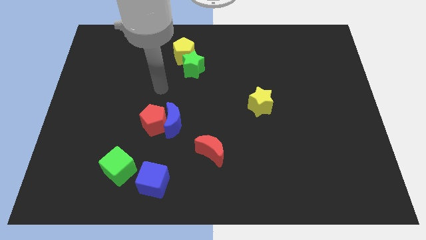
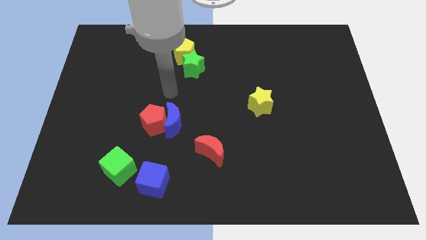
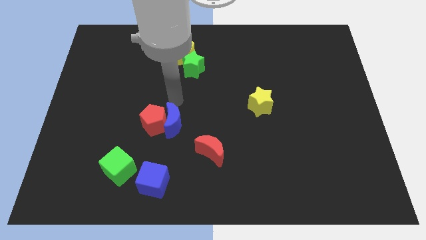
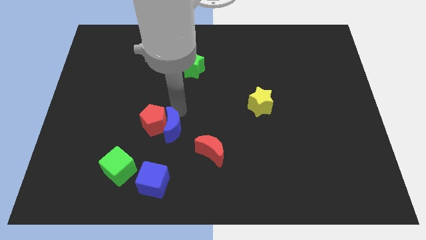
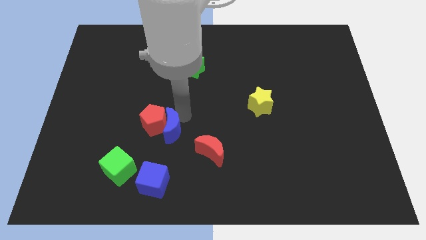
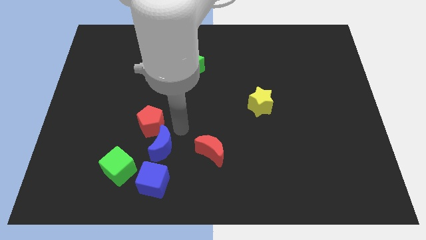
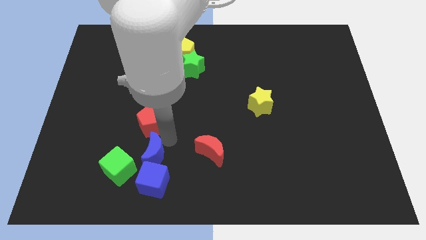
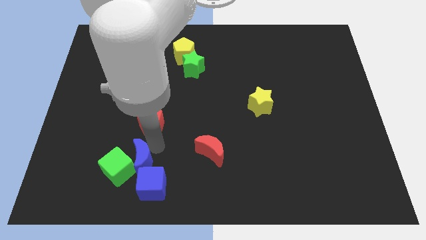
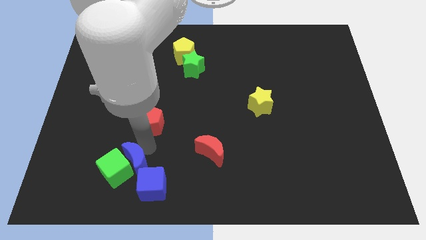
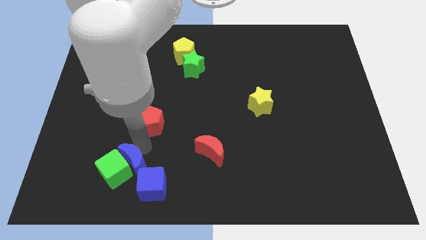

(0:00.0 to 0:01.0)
pull the red pentagon apart from the blue moon

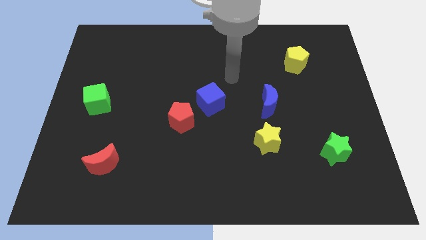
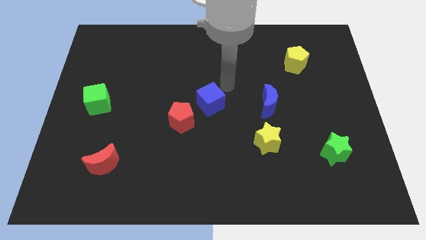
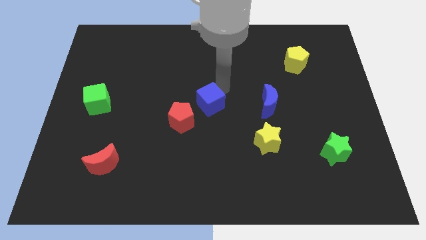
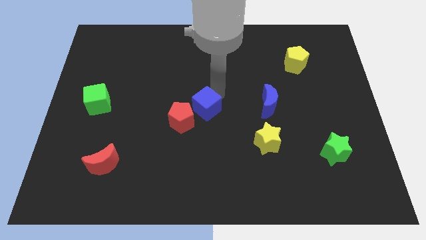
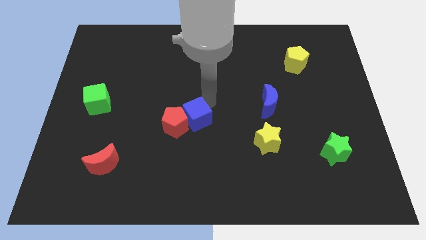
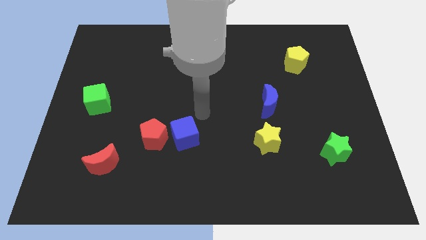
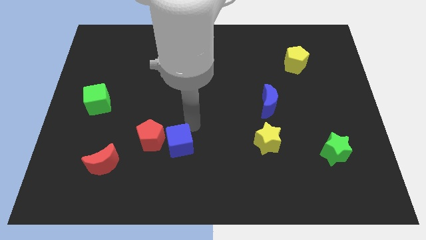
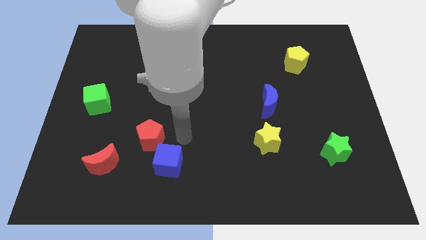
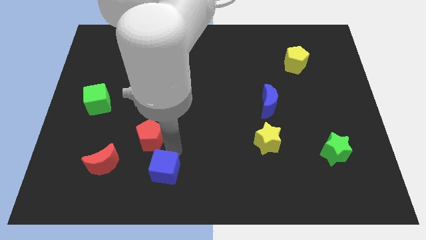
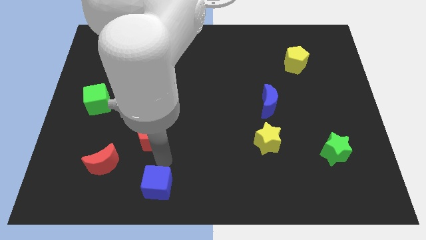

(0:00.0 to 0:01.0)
pull the red pentagon apart from the blue cube

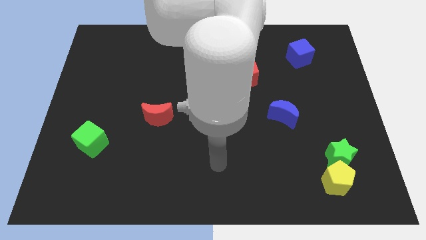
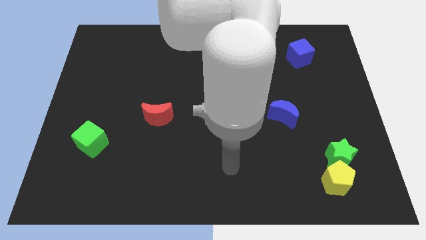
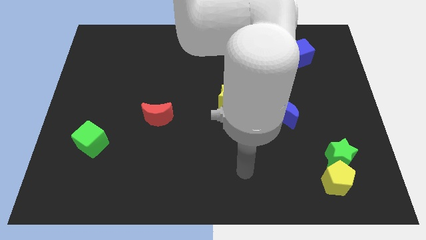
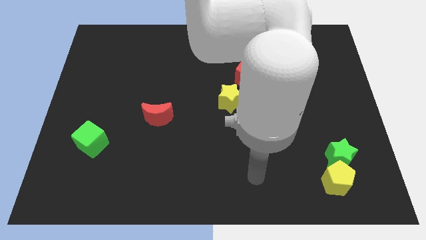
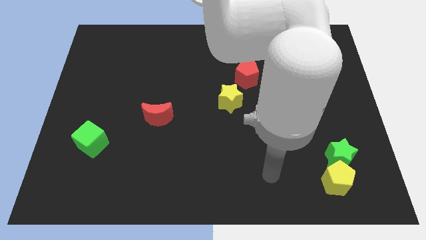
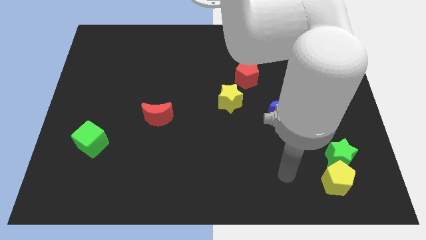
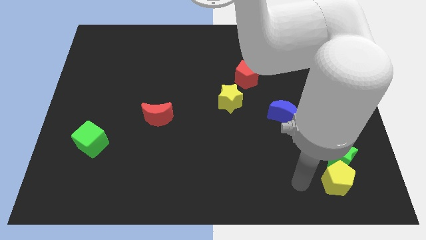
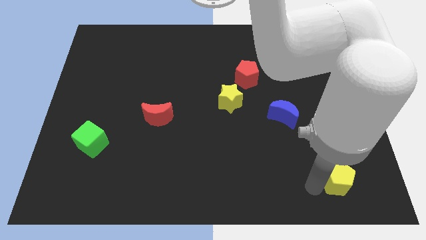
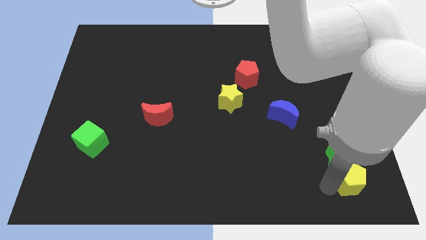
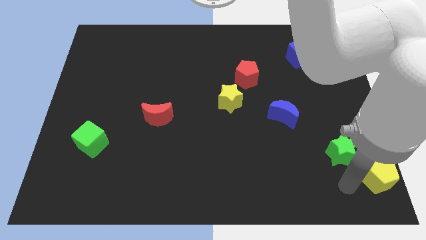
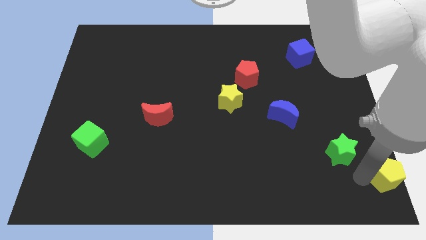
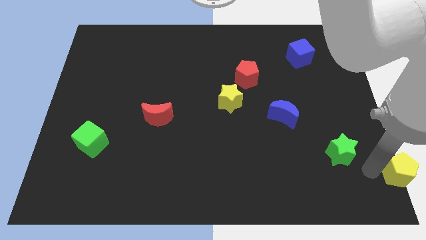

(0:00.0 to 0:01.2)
move the green star away from the yellow pentagon

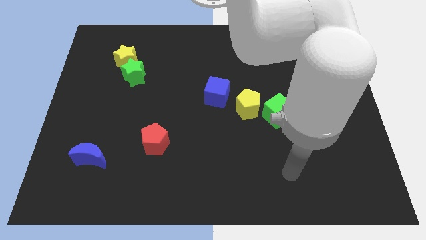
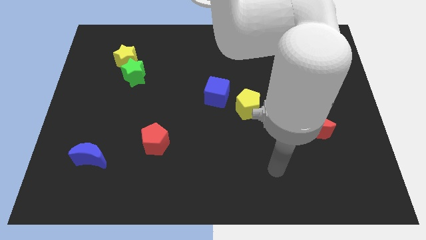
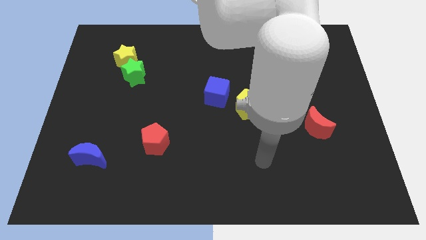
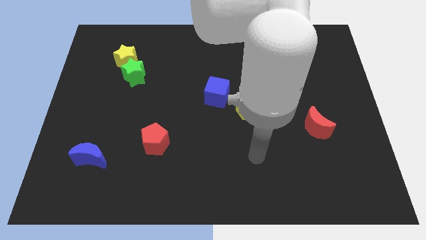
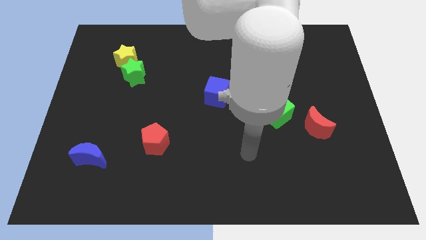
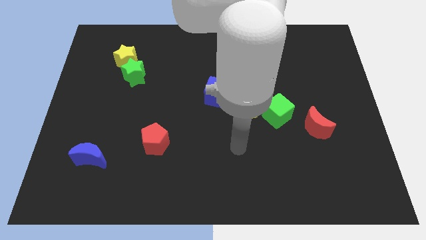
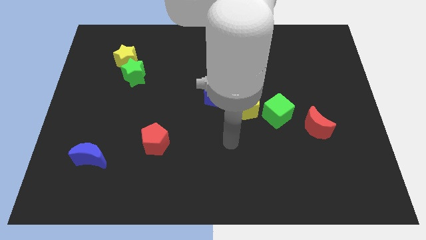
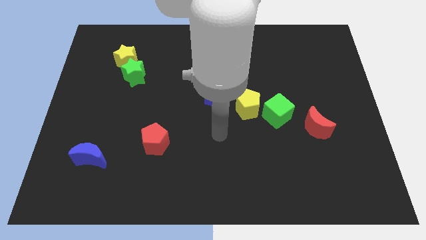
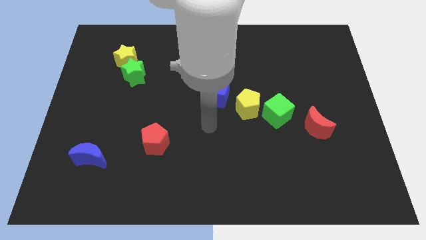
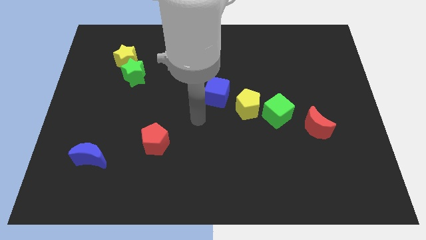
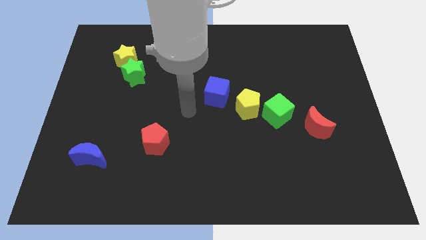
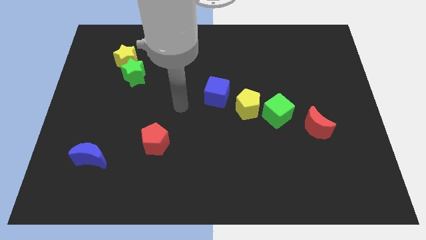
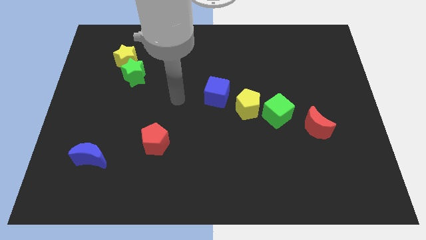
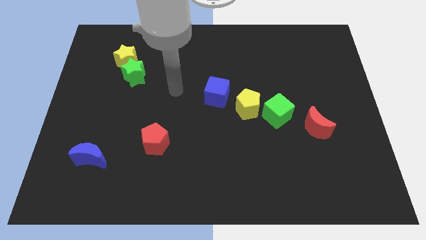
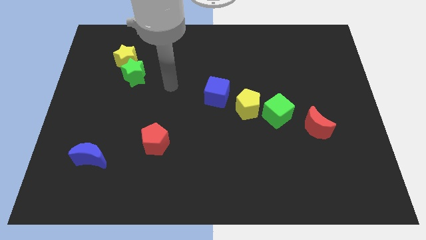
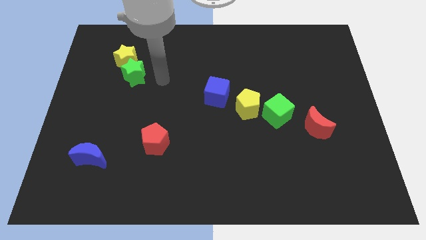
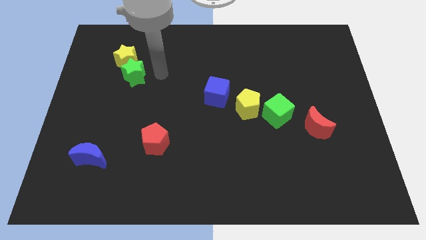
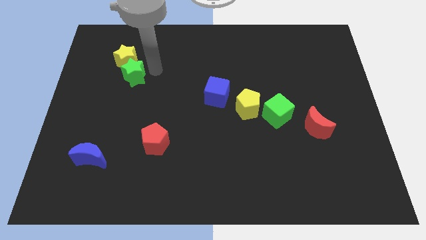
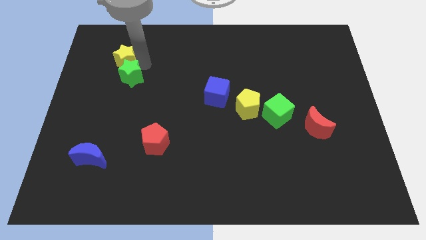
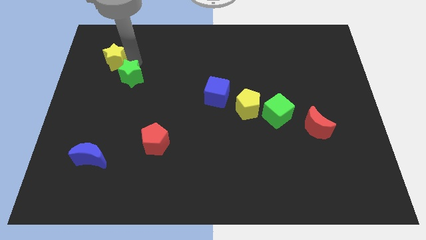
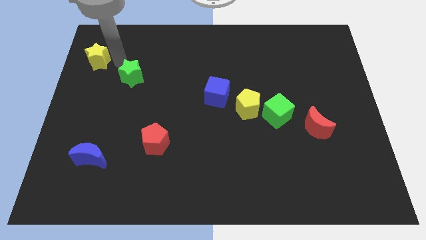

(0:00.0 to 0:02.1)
pull the green star apart from the yellow star

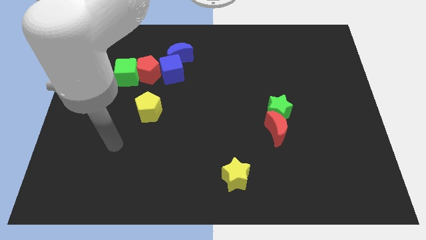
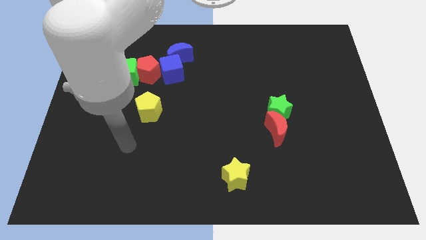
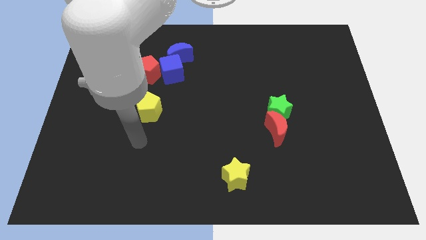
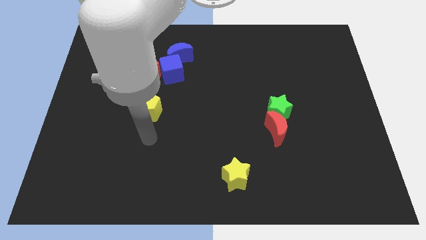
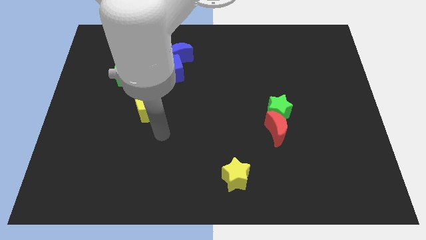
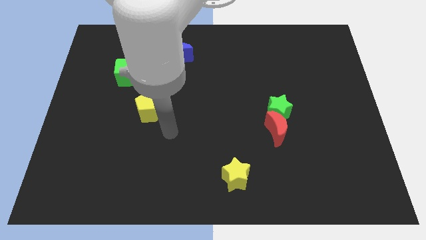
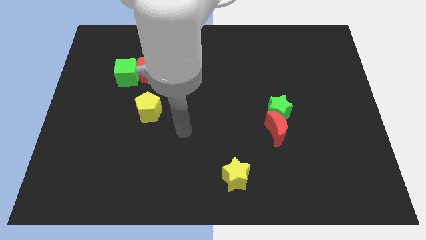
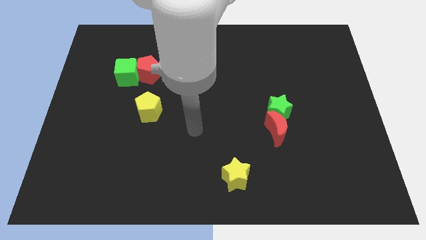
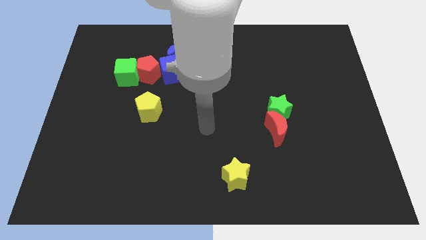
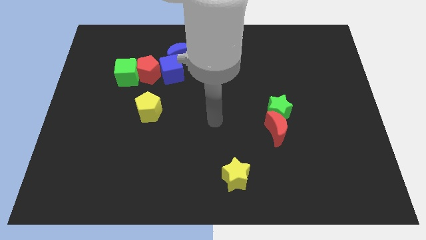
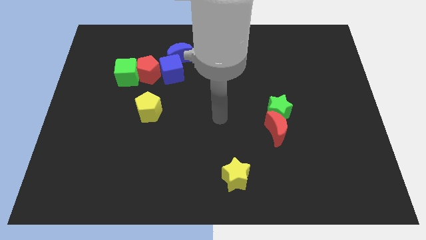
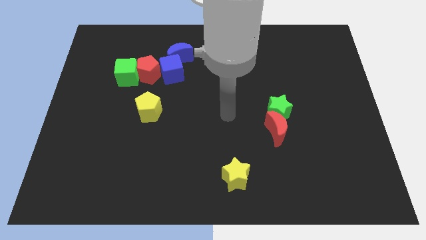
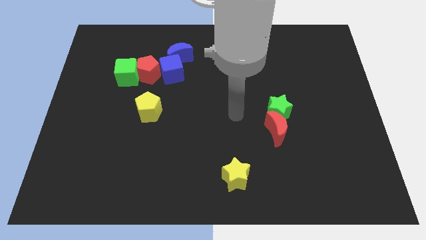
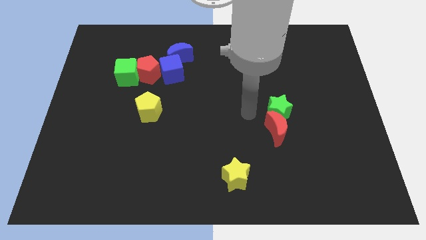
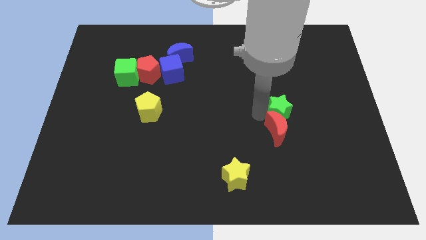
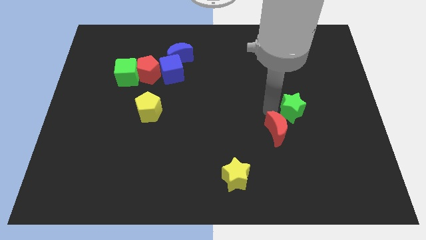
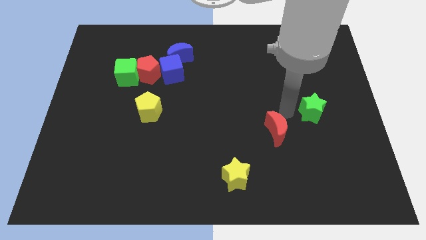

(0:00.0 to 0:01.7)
move the red moon away from the green star

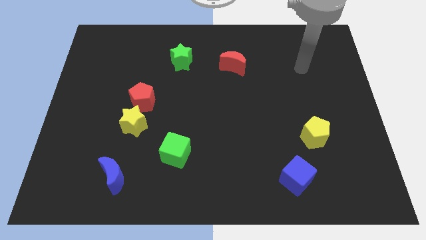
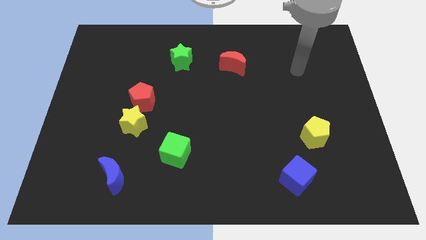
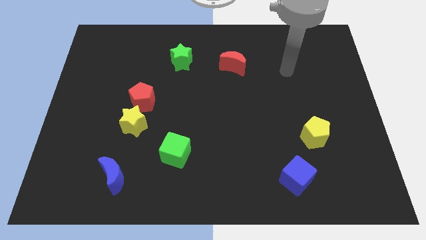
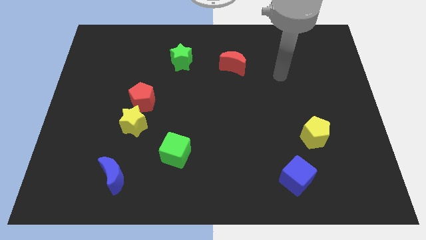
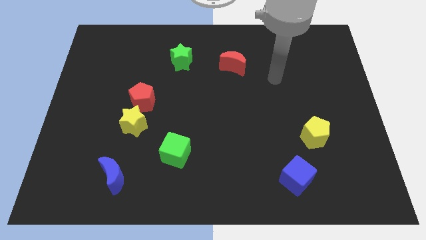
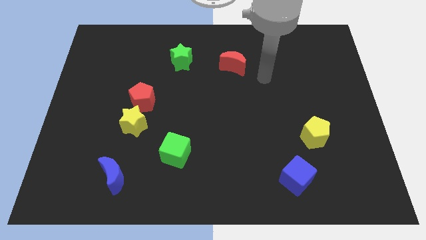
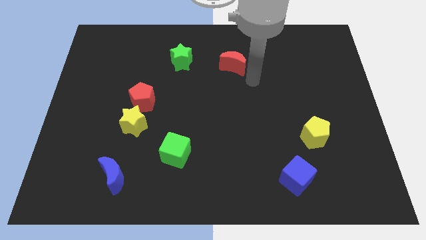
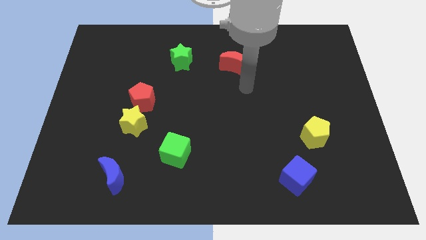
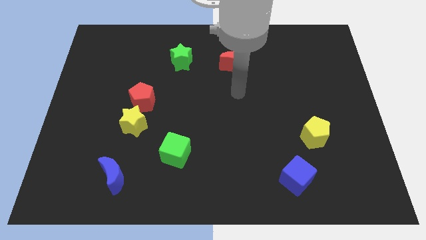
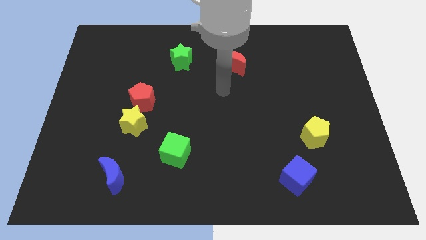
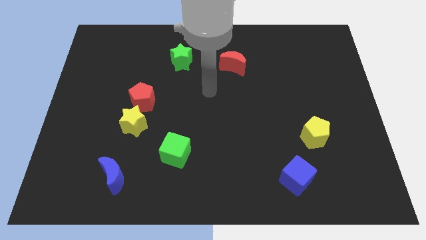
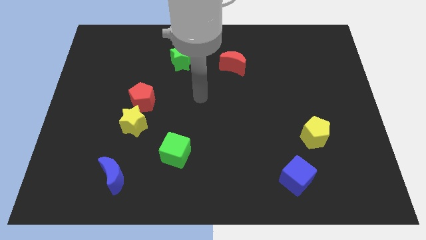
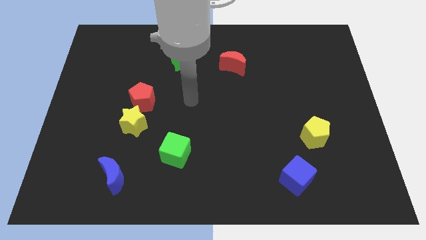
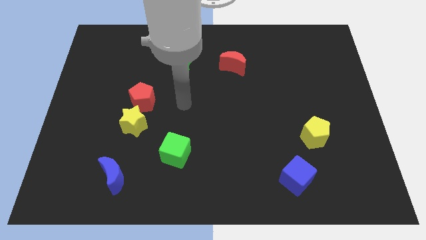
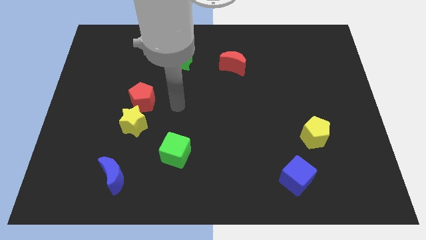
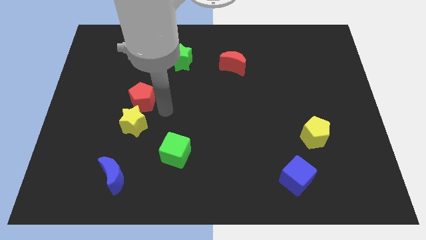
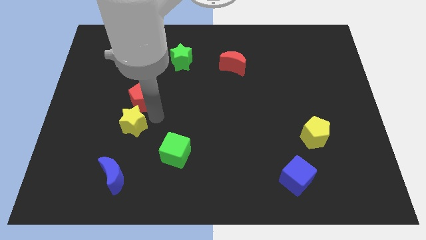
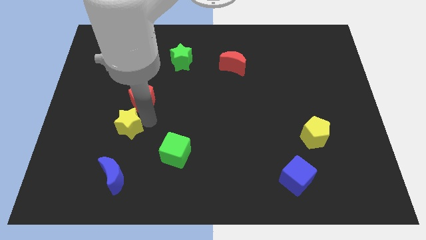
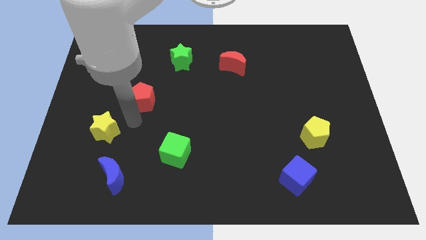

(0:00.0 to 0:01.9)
pull the red pentagon apart from the yellow star

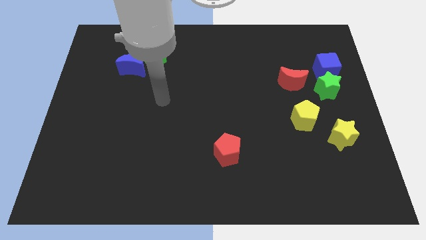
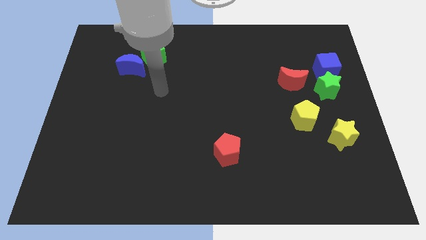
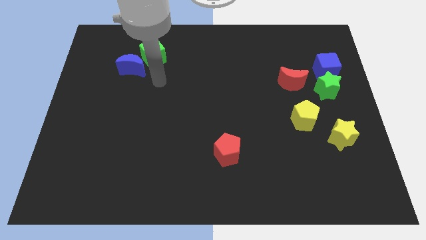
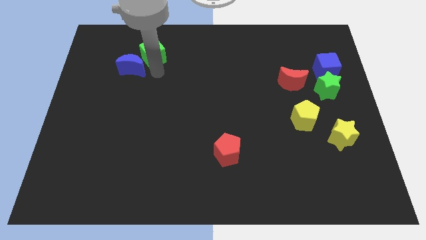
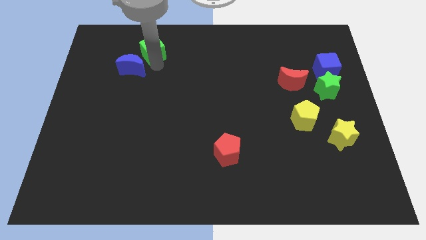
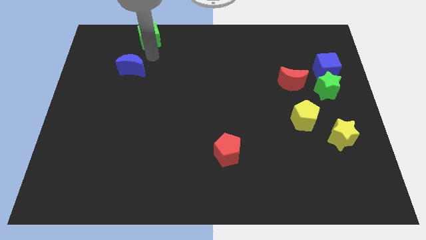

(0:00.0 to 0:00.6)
pull the blue moon apart from the green cube
